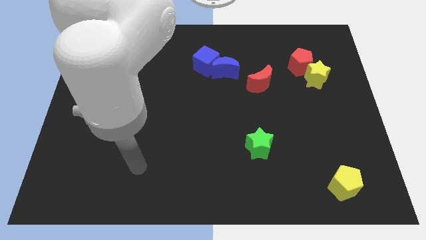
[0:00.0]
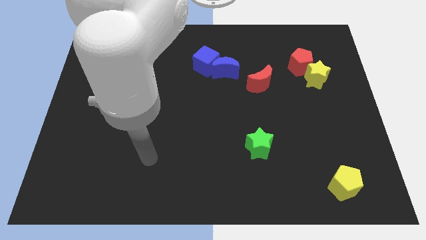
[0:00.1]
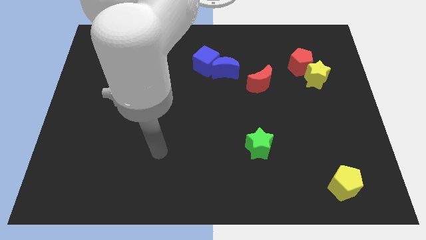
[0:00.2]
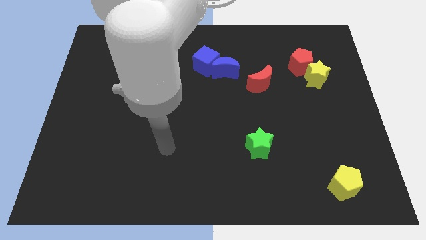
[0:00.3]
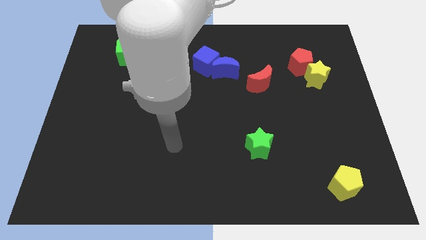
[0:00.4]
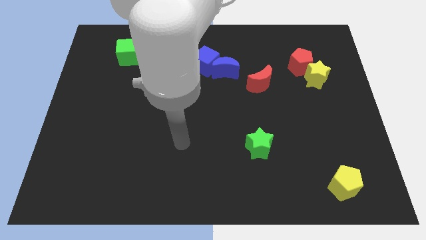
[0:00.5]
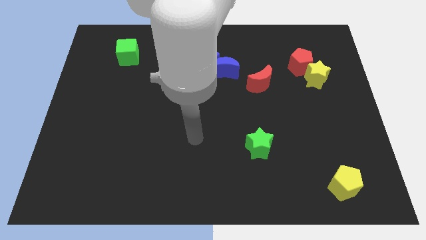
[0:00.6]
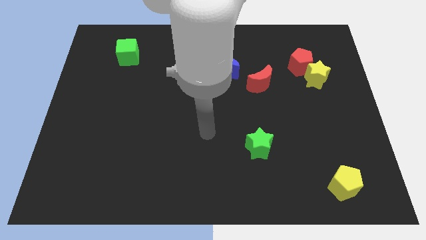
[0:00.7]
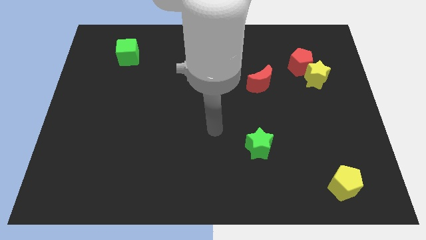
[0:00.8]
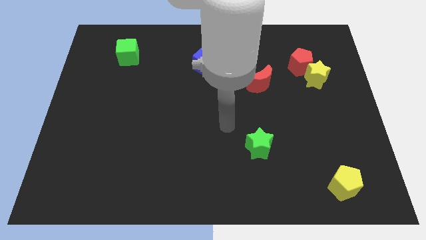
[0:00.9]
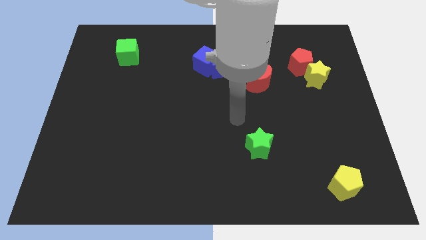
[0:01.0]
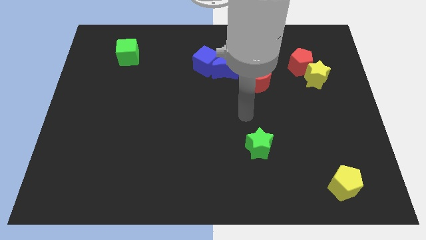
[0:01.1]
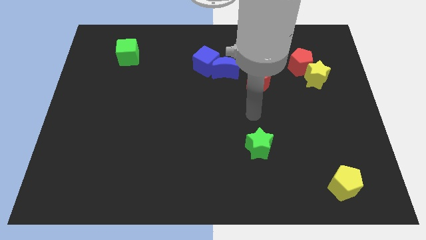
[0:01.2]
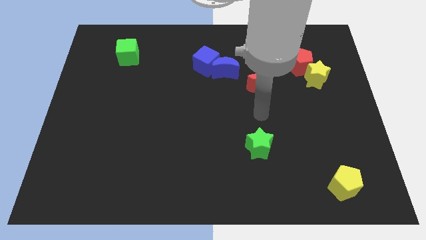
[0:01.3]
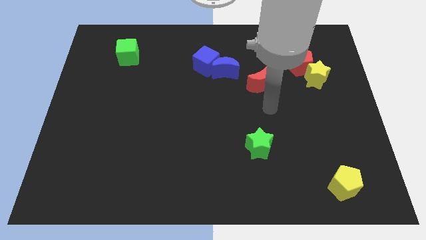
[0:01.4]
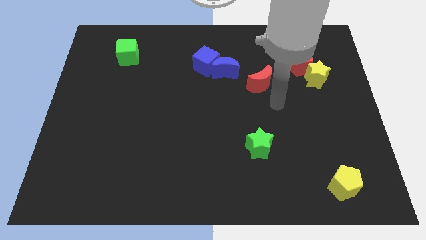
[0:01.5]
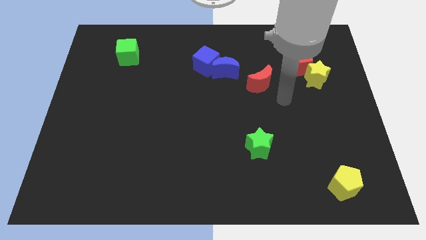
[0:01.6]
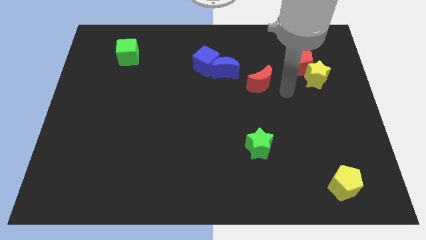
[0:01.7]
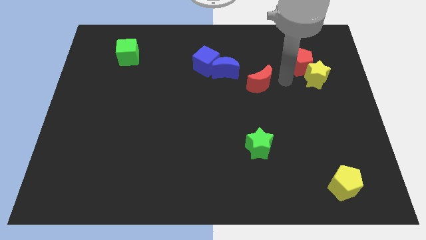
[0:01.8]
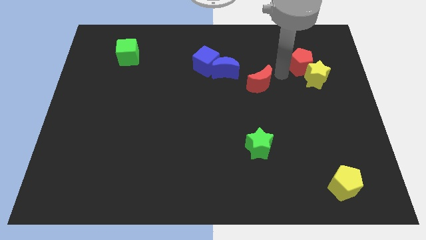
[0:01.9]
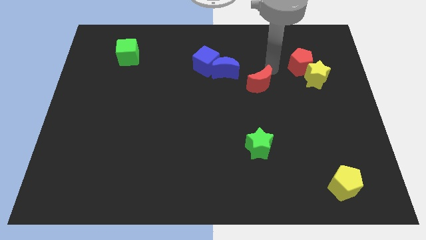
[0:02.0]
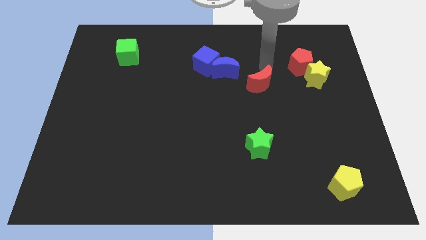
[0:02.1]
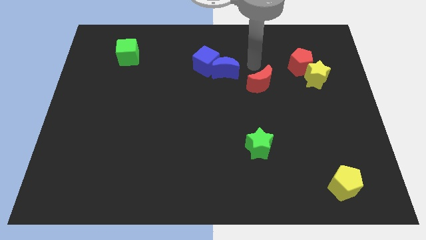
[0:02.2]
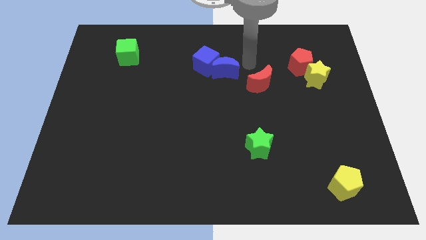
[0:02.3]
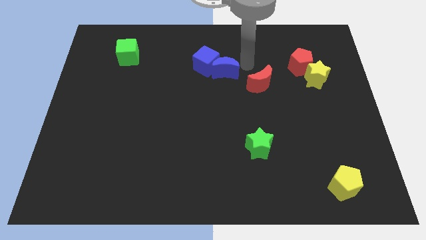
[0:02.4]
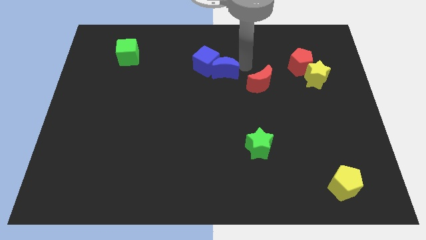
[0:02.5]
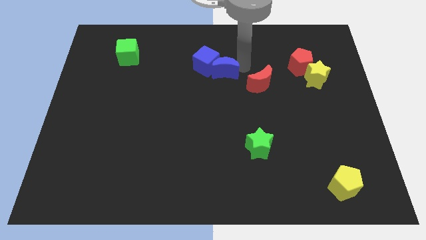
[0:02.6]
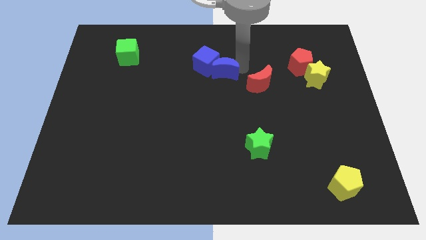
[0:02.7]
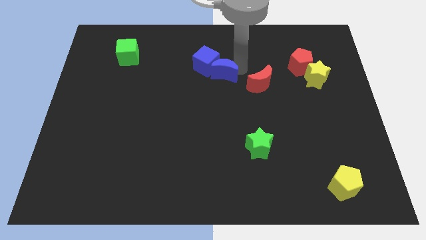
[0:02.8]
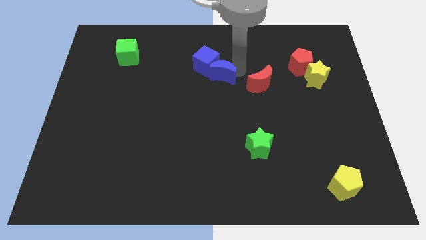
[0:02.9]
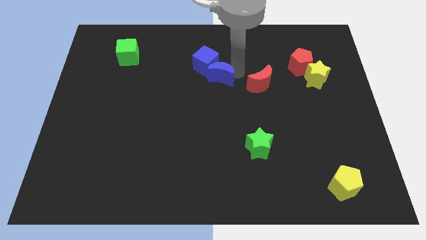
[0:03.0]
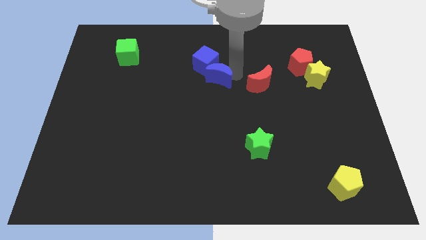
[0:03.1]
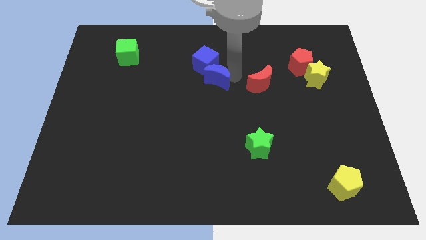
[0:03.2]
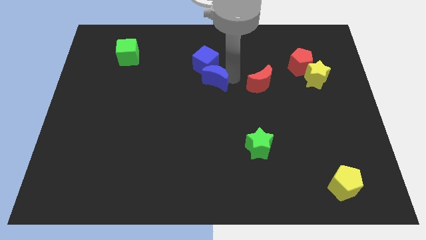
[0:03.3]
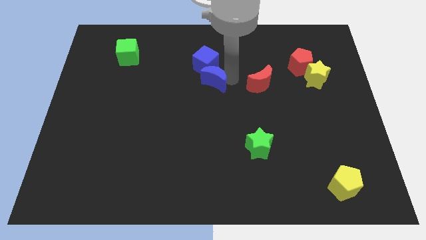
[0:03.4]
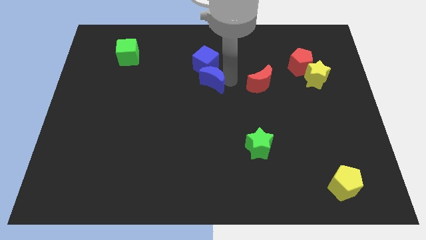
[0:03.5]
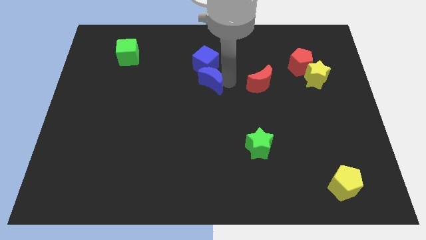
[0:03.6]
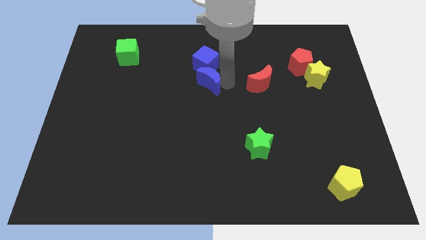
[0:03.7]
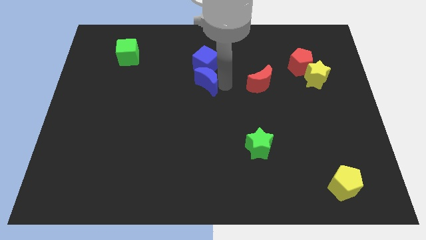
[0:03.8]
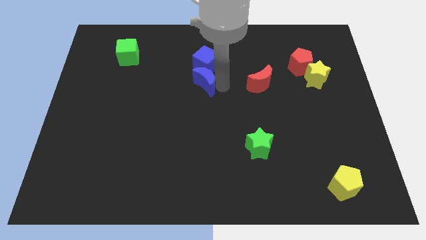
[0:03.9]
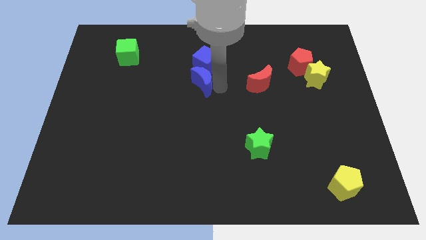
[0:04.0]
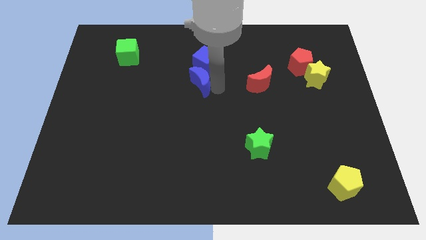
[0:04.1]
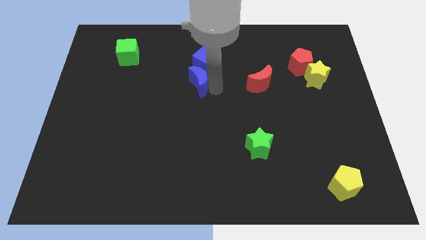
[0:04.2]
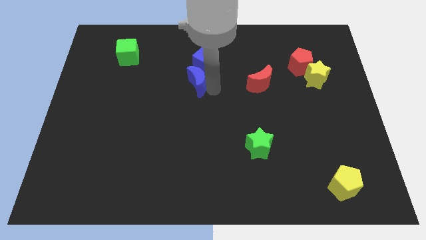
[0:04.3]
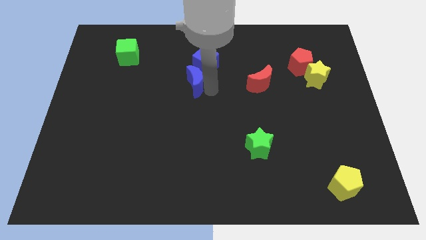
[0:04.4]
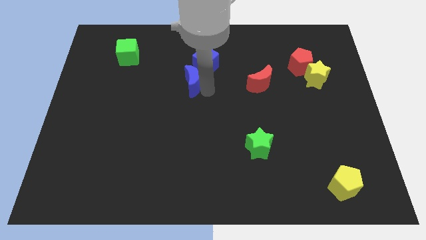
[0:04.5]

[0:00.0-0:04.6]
move the blue moon to the left a bit

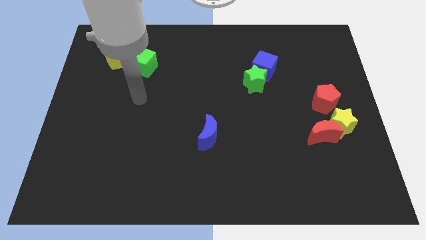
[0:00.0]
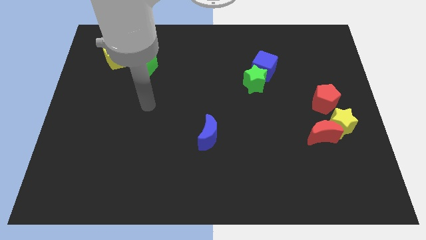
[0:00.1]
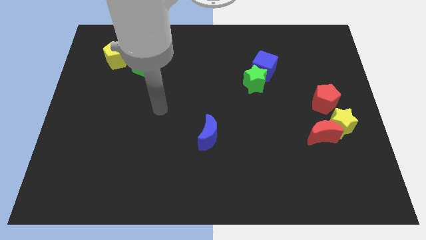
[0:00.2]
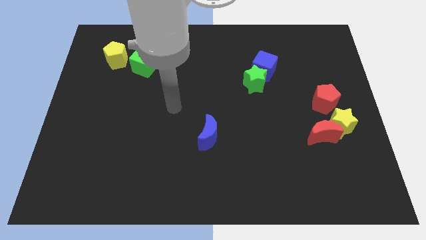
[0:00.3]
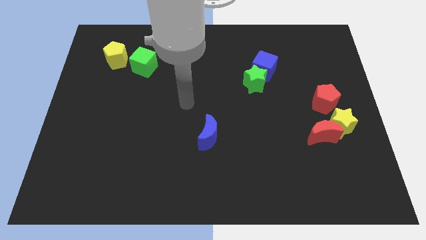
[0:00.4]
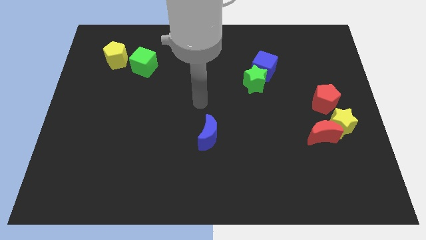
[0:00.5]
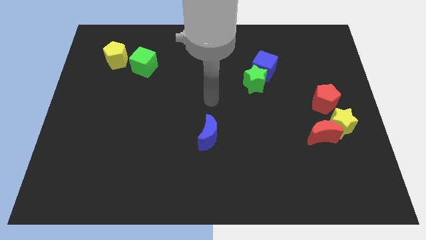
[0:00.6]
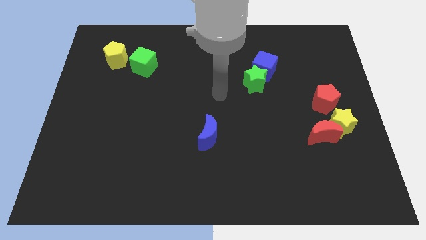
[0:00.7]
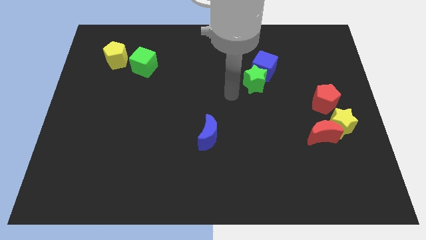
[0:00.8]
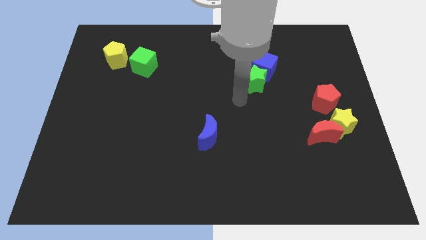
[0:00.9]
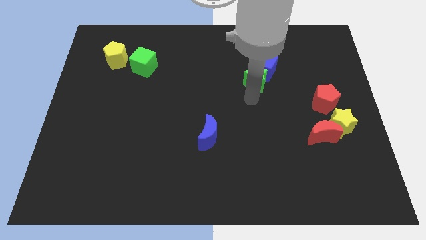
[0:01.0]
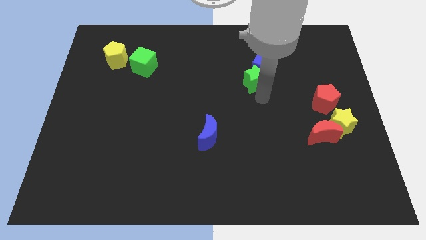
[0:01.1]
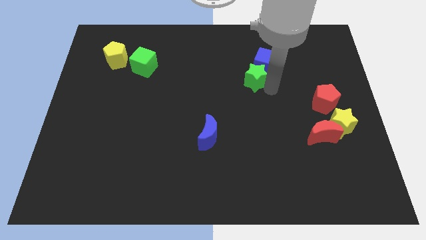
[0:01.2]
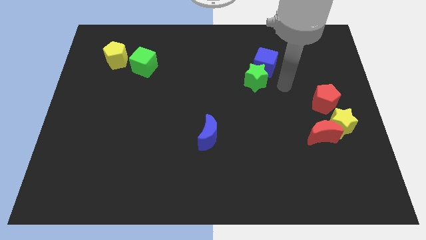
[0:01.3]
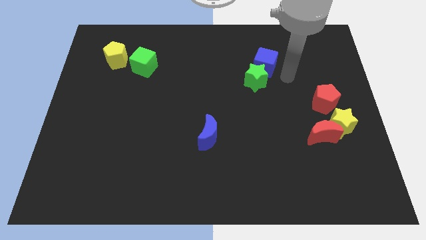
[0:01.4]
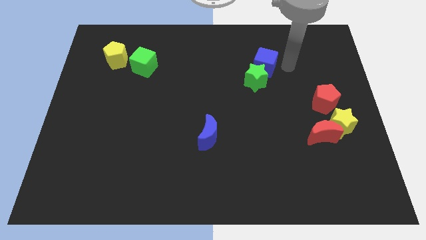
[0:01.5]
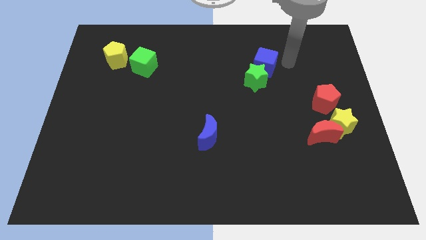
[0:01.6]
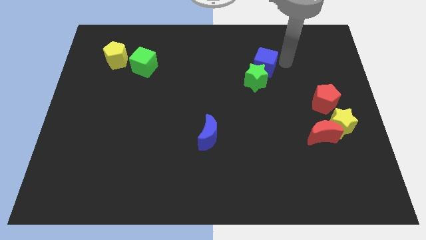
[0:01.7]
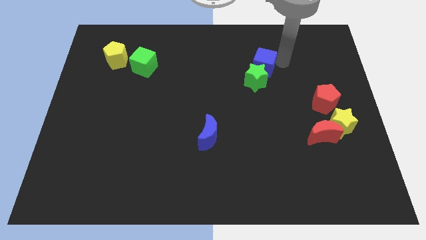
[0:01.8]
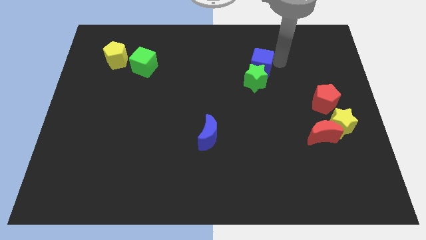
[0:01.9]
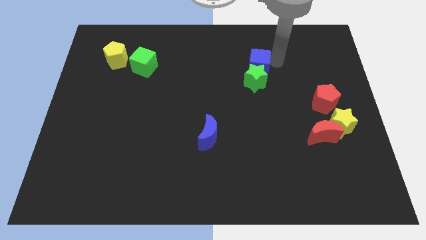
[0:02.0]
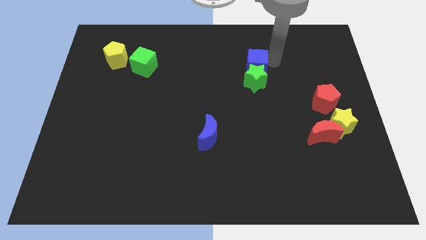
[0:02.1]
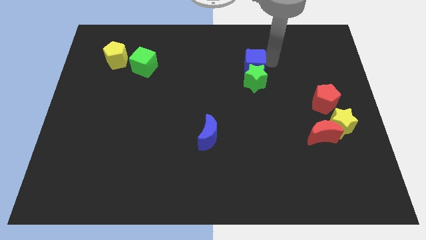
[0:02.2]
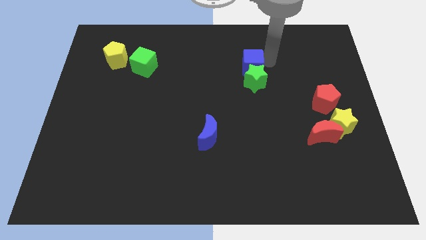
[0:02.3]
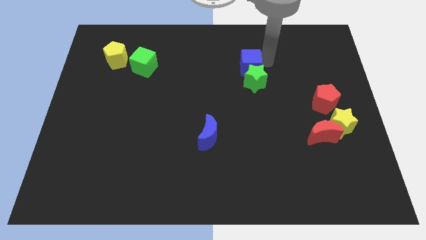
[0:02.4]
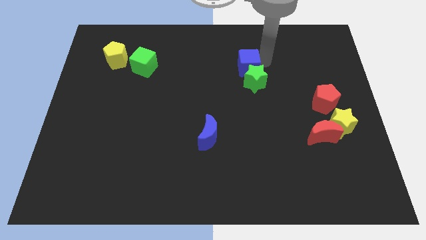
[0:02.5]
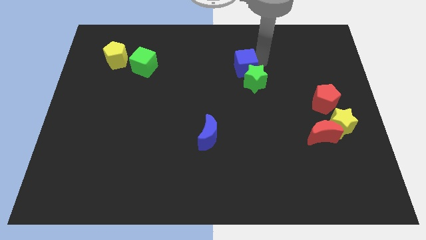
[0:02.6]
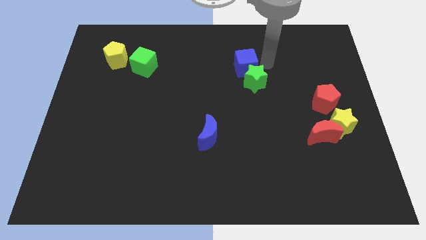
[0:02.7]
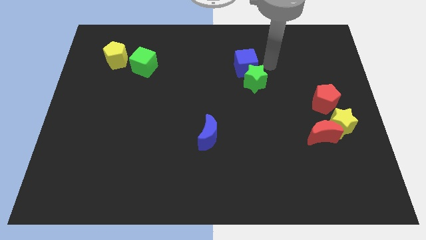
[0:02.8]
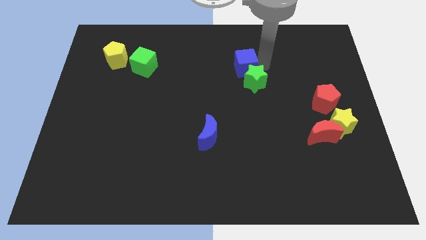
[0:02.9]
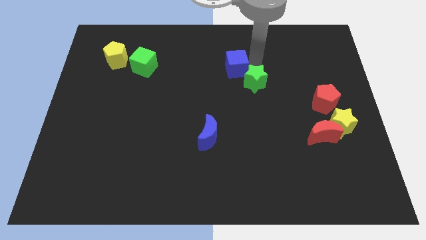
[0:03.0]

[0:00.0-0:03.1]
slide the blue cube left somewhat

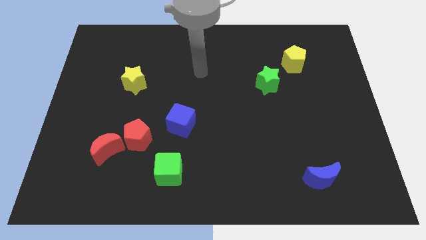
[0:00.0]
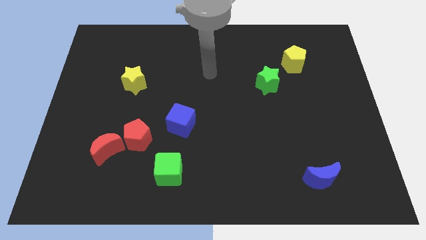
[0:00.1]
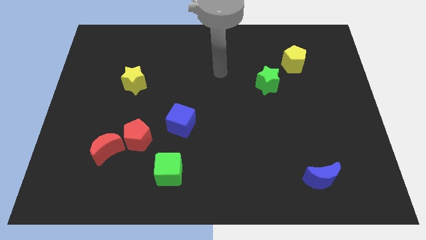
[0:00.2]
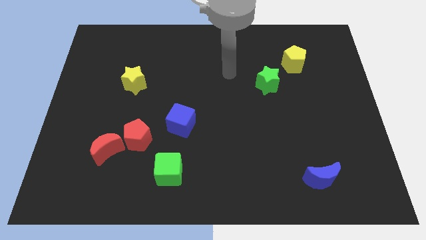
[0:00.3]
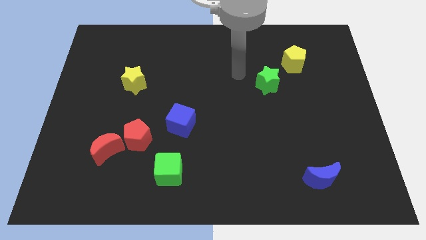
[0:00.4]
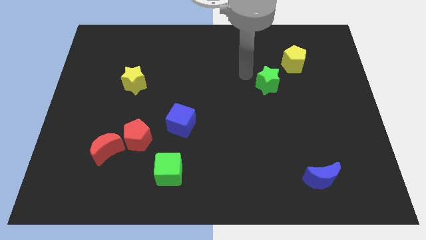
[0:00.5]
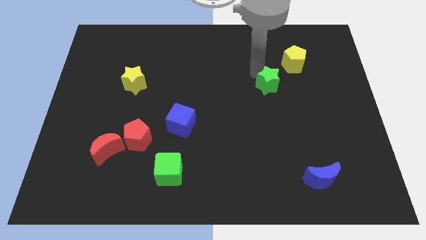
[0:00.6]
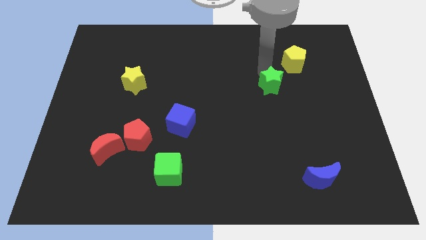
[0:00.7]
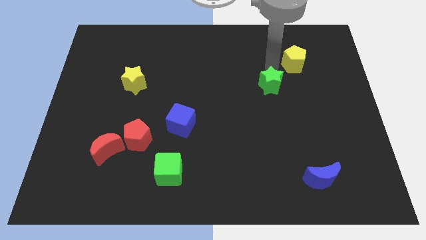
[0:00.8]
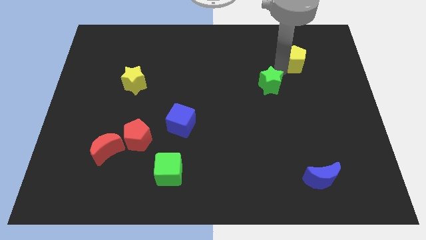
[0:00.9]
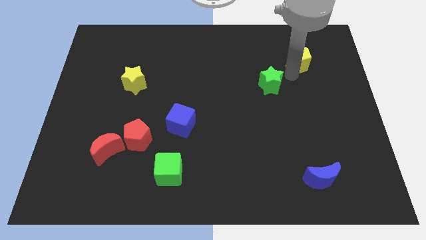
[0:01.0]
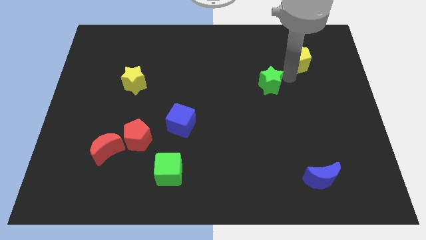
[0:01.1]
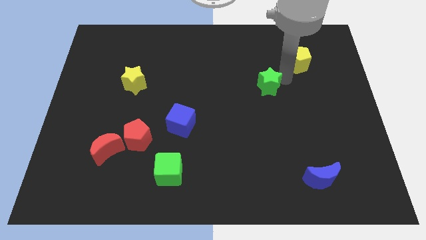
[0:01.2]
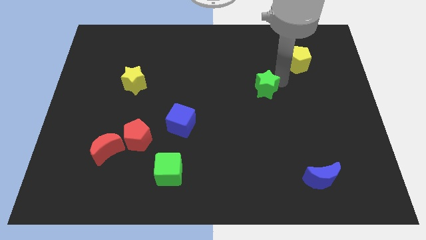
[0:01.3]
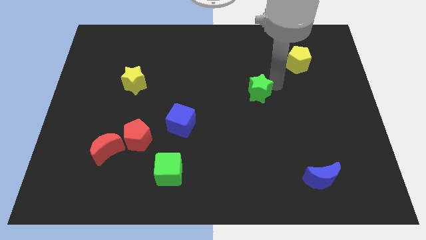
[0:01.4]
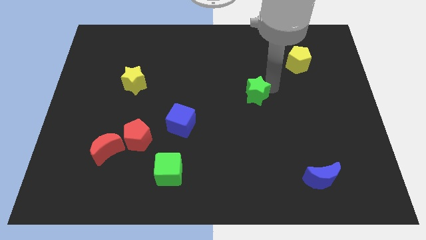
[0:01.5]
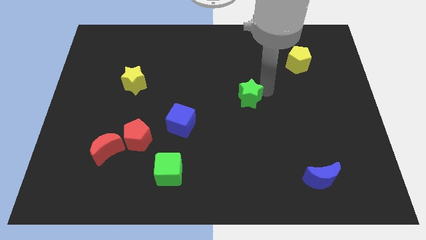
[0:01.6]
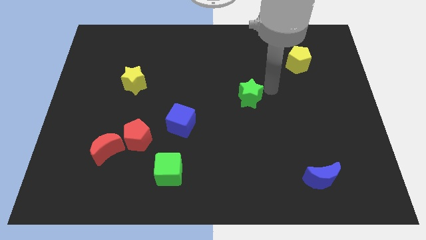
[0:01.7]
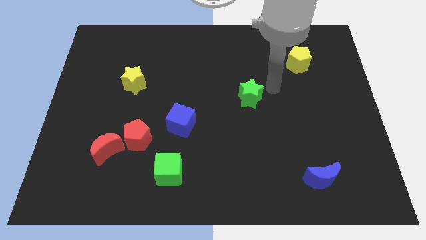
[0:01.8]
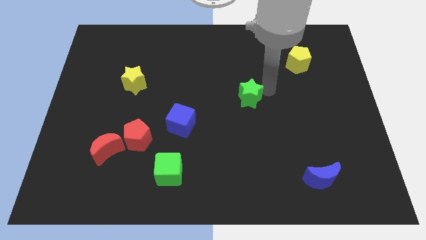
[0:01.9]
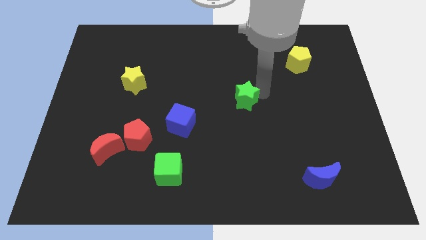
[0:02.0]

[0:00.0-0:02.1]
move the green star slightly down and left diagonally
